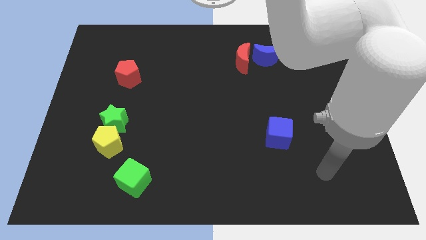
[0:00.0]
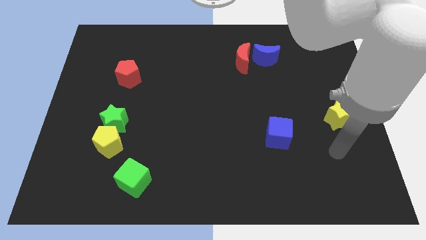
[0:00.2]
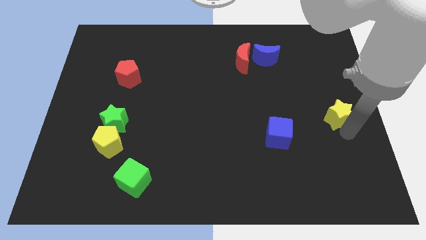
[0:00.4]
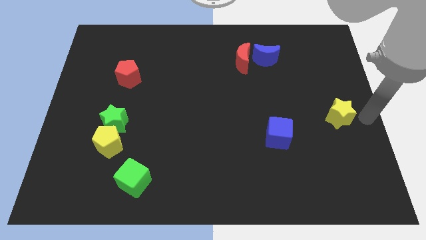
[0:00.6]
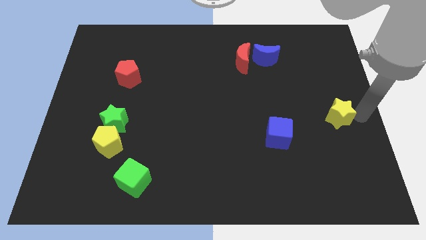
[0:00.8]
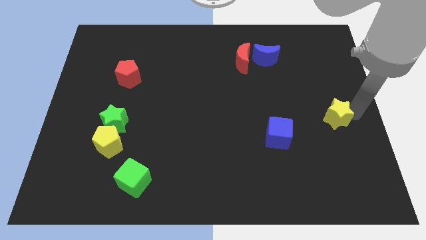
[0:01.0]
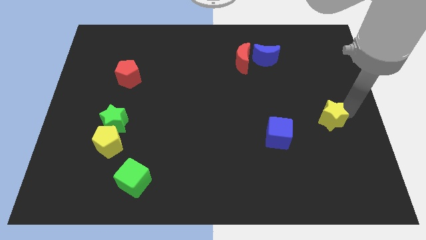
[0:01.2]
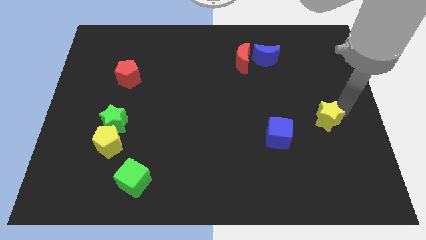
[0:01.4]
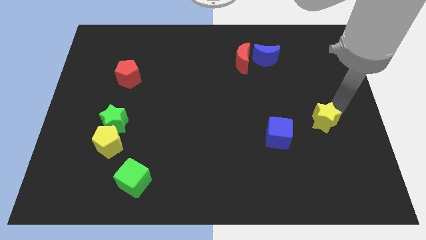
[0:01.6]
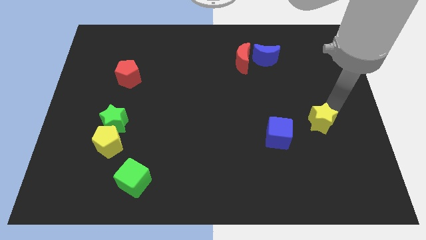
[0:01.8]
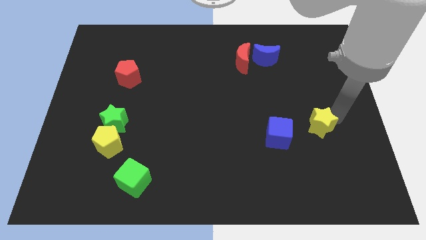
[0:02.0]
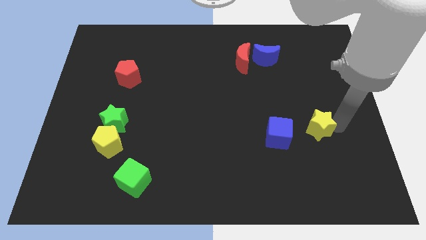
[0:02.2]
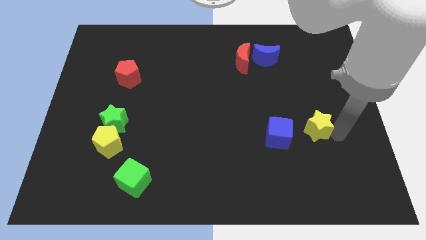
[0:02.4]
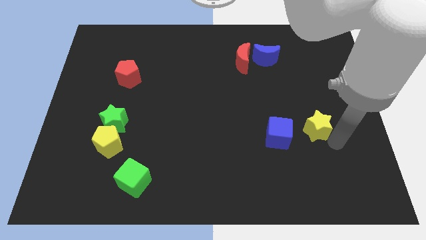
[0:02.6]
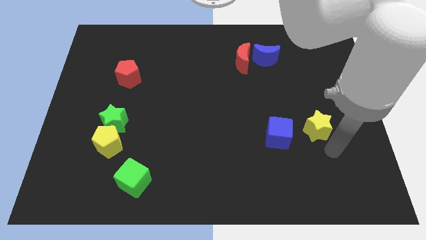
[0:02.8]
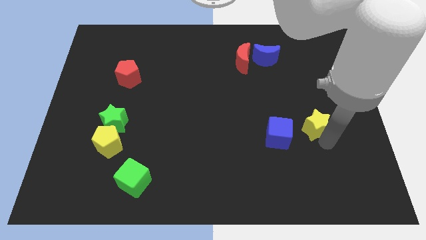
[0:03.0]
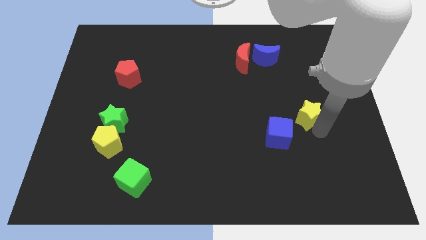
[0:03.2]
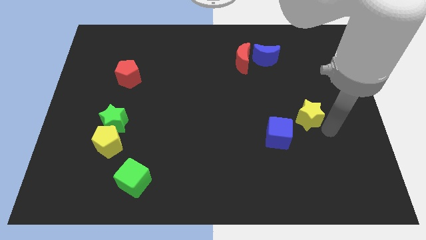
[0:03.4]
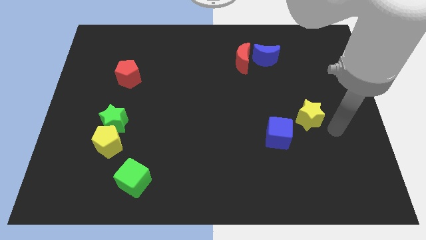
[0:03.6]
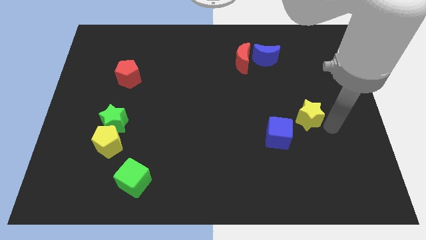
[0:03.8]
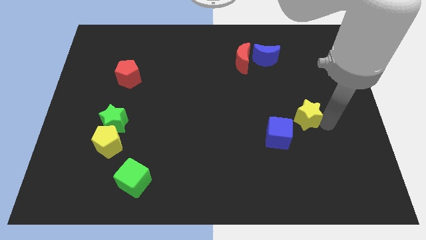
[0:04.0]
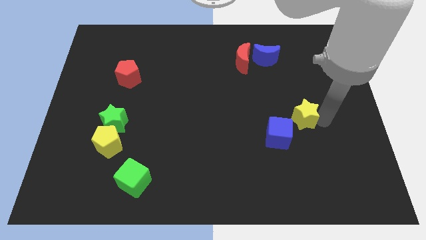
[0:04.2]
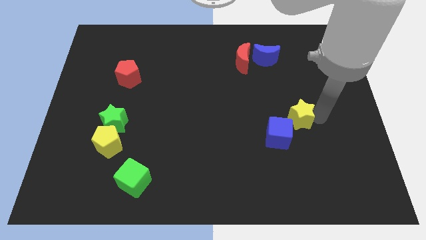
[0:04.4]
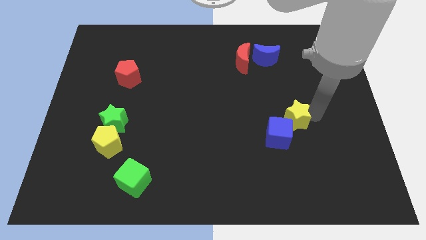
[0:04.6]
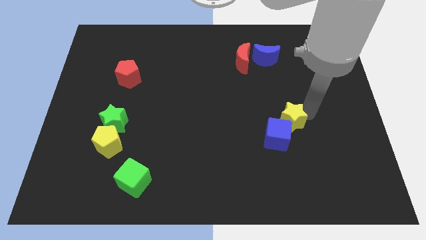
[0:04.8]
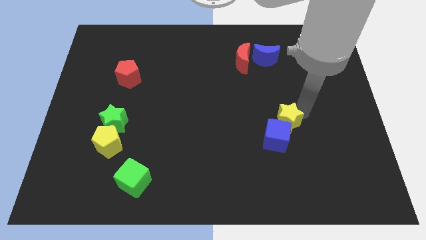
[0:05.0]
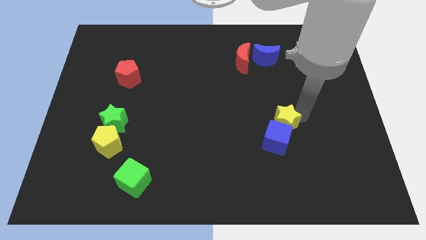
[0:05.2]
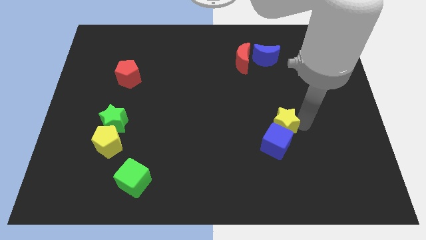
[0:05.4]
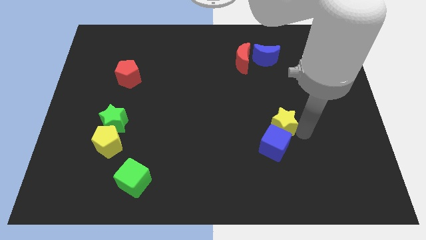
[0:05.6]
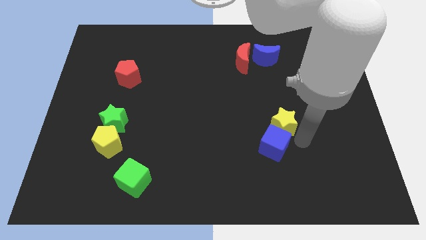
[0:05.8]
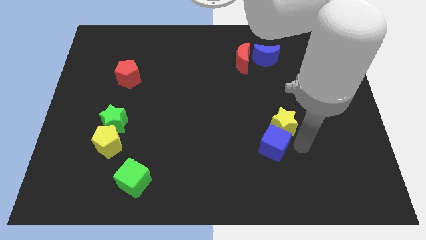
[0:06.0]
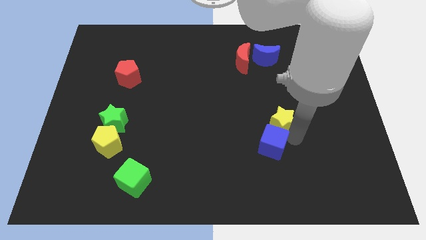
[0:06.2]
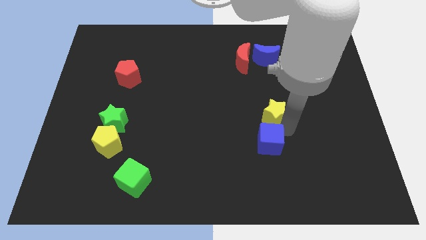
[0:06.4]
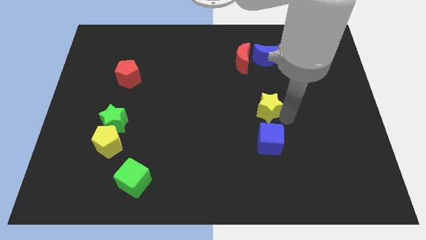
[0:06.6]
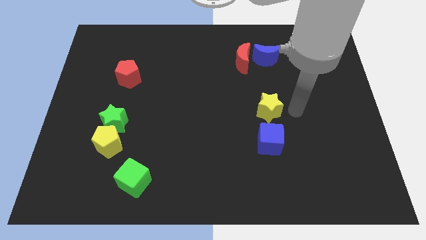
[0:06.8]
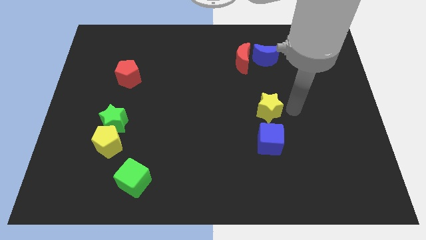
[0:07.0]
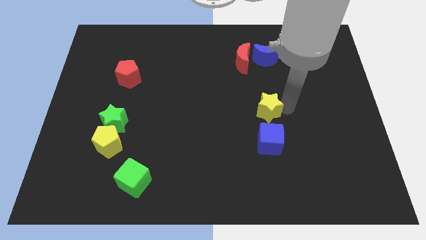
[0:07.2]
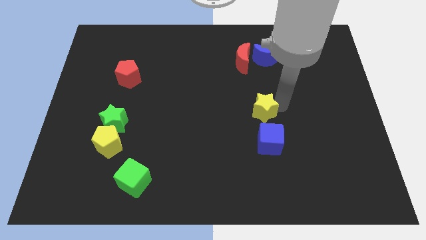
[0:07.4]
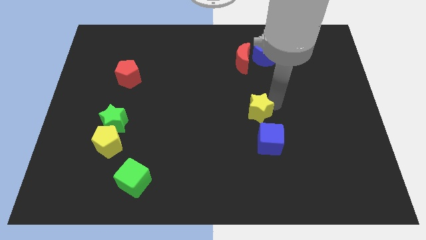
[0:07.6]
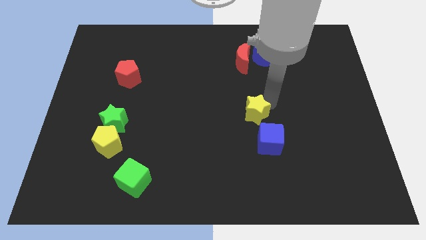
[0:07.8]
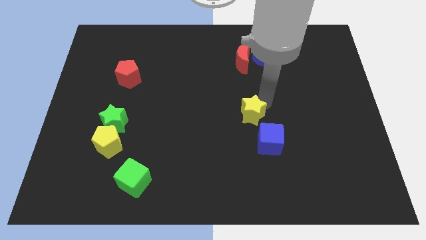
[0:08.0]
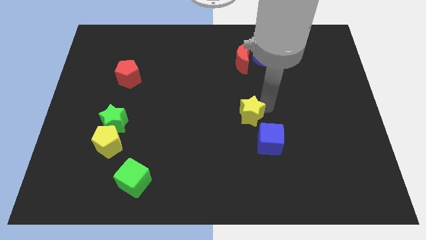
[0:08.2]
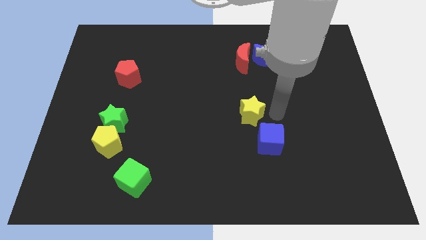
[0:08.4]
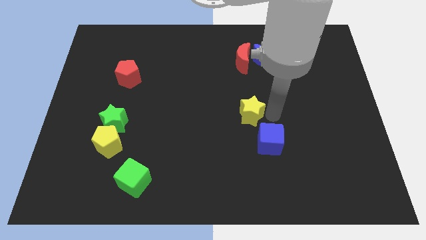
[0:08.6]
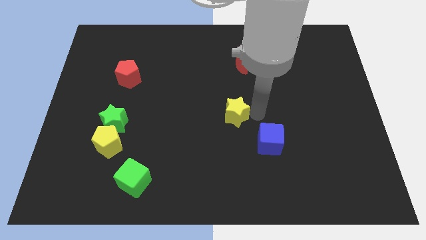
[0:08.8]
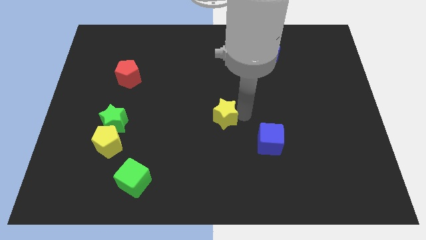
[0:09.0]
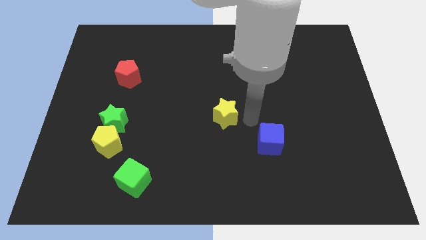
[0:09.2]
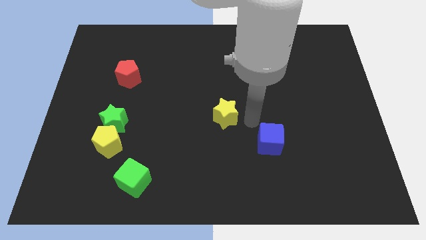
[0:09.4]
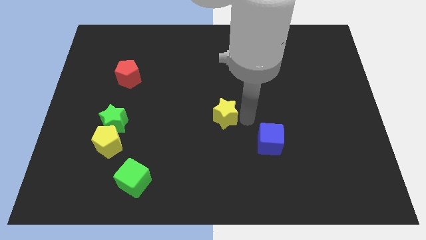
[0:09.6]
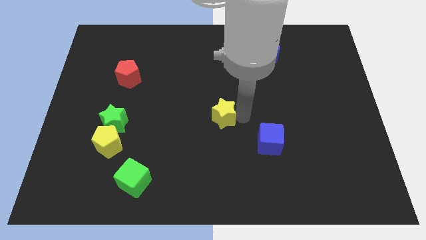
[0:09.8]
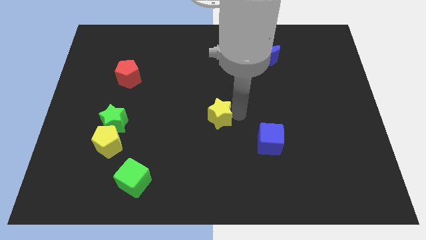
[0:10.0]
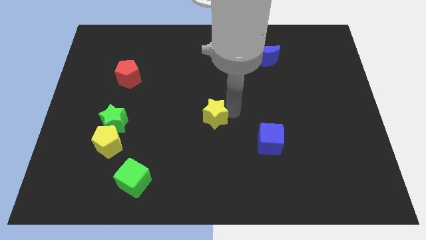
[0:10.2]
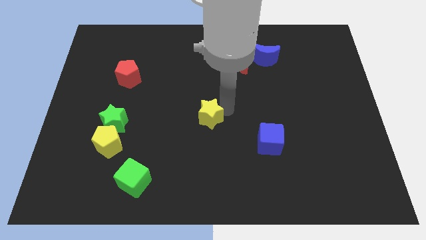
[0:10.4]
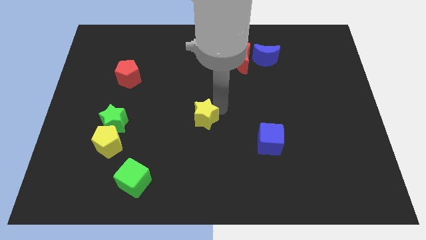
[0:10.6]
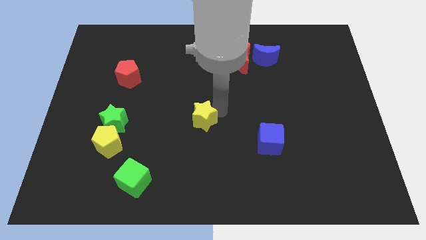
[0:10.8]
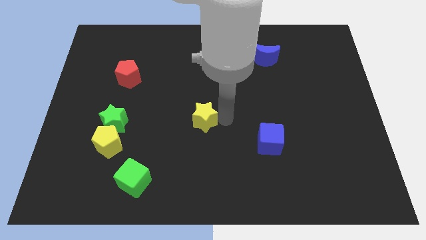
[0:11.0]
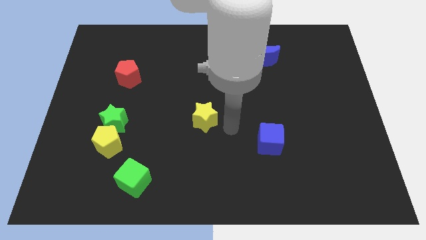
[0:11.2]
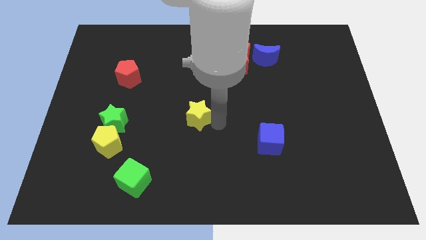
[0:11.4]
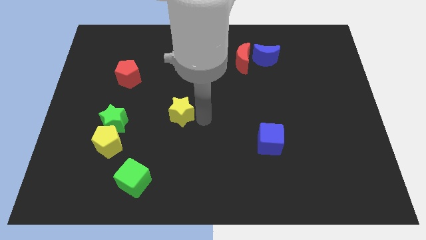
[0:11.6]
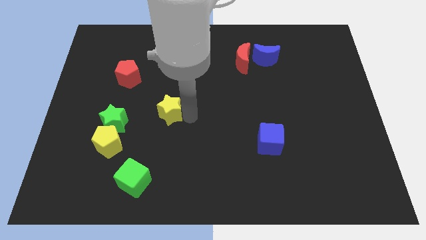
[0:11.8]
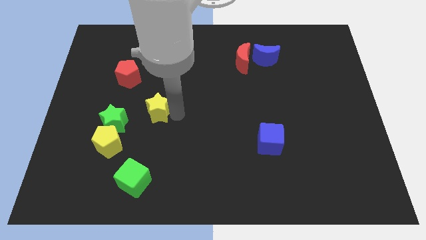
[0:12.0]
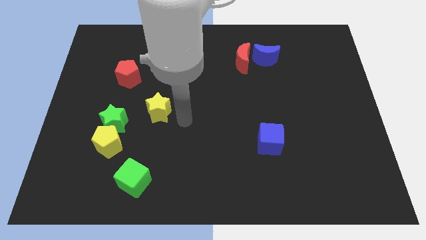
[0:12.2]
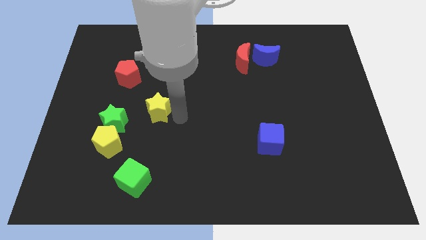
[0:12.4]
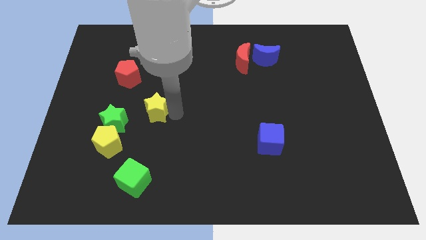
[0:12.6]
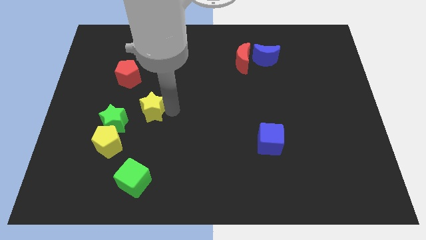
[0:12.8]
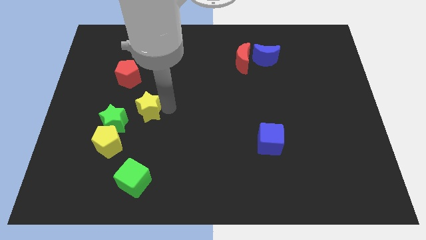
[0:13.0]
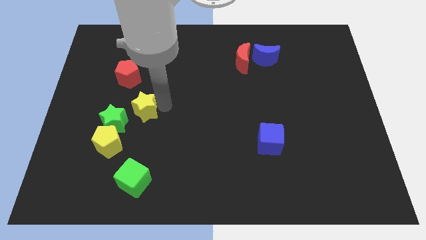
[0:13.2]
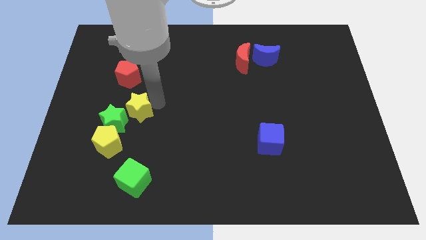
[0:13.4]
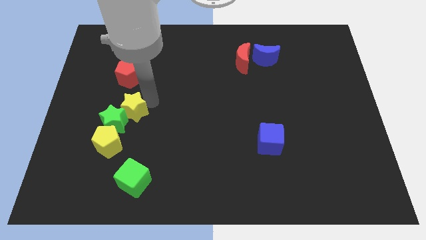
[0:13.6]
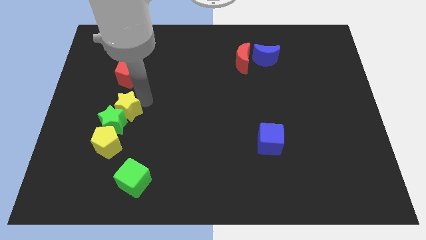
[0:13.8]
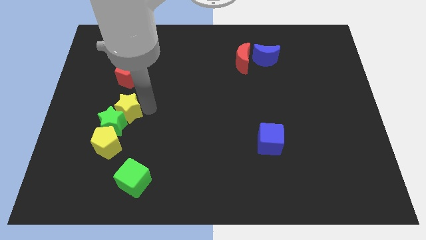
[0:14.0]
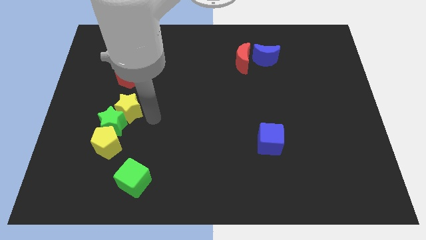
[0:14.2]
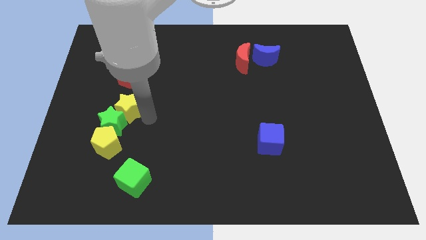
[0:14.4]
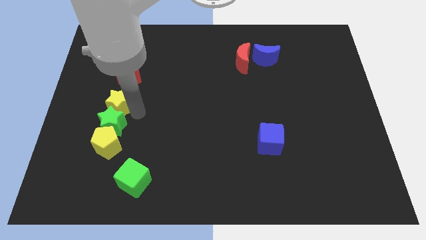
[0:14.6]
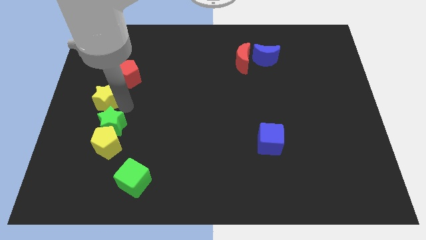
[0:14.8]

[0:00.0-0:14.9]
put the yellow star to the left side of the board

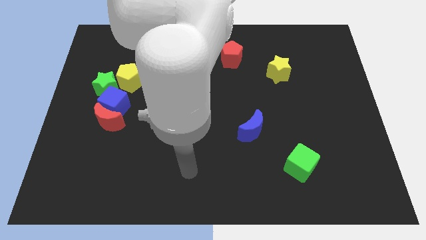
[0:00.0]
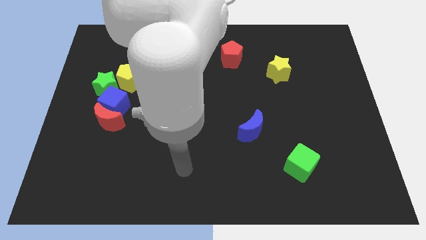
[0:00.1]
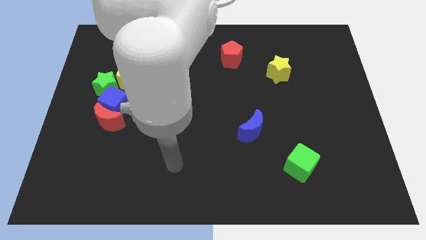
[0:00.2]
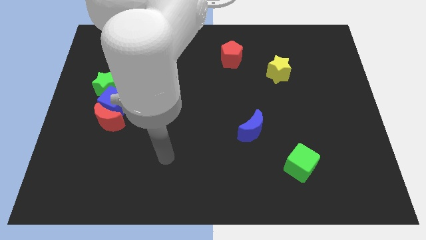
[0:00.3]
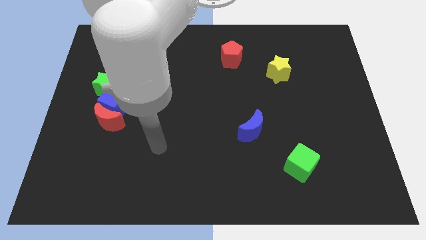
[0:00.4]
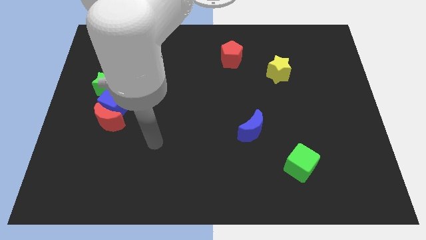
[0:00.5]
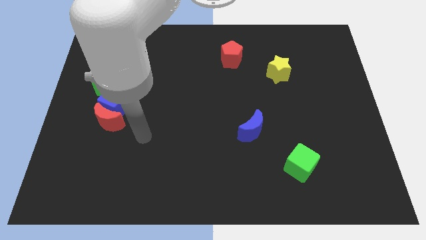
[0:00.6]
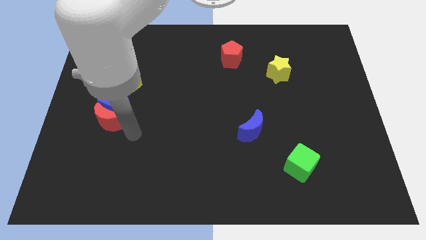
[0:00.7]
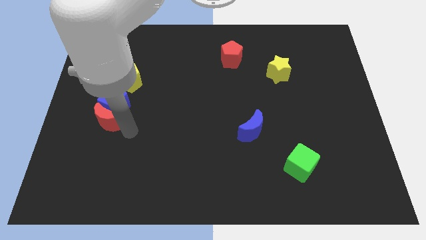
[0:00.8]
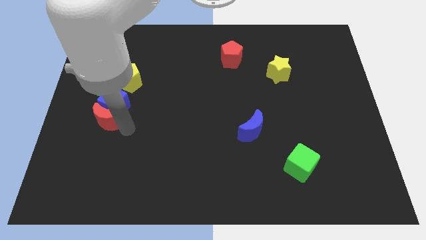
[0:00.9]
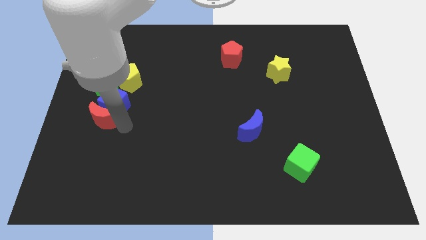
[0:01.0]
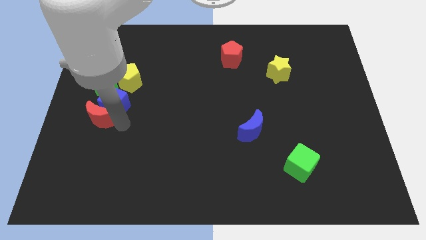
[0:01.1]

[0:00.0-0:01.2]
slide the red moon to the left side
